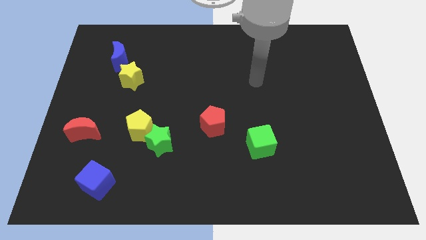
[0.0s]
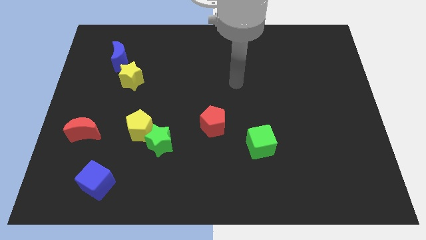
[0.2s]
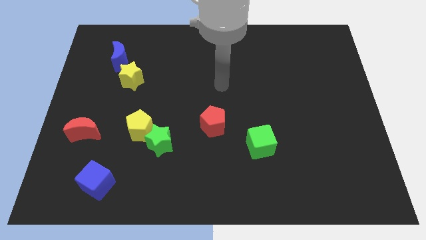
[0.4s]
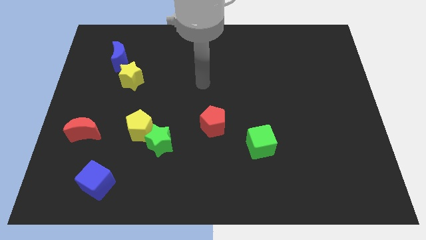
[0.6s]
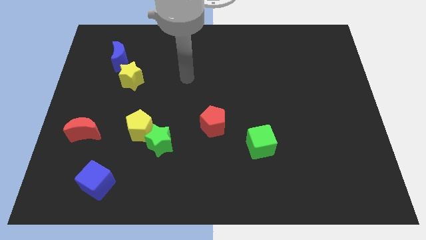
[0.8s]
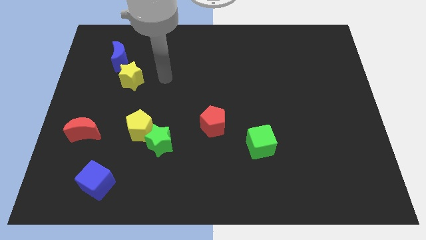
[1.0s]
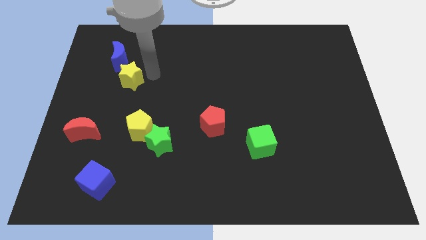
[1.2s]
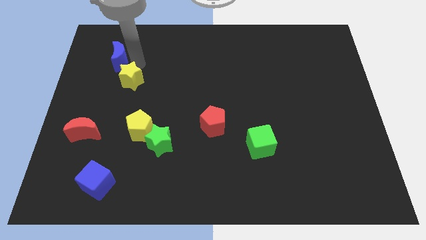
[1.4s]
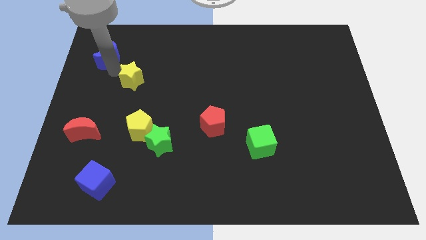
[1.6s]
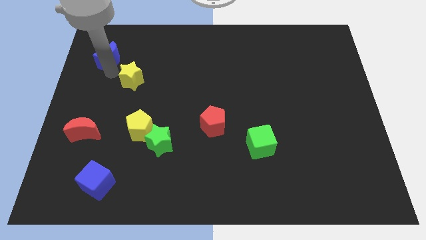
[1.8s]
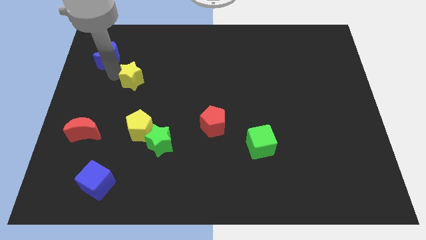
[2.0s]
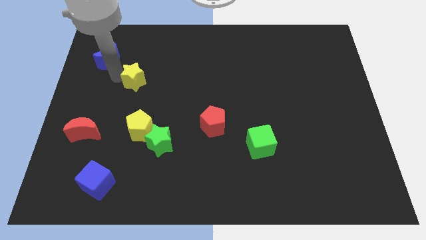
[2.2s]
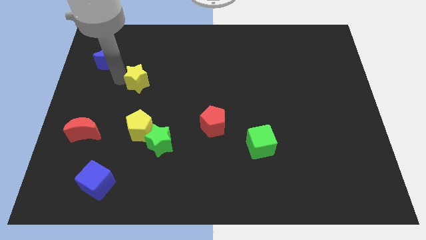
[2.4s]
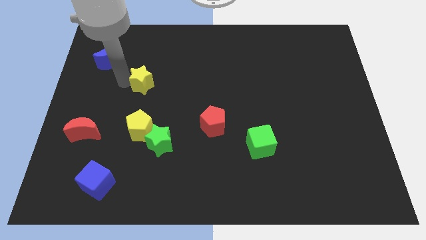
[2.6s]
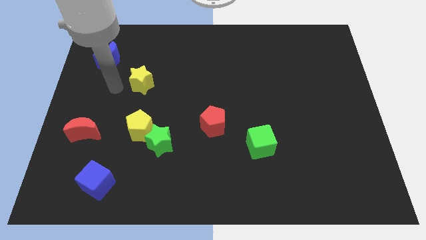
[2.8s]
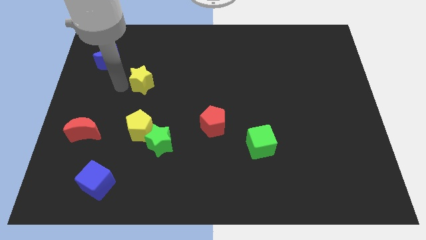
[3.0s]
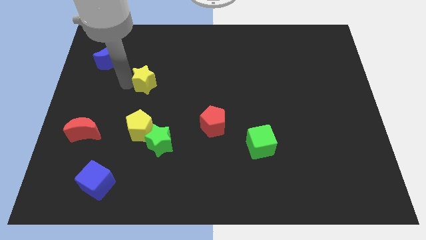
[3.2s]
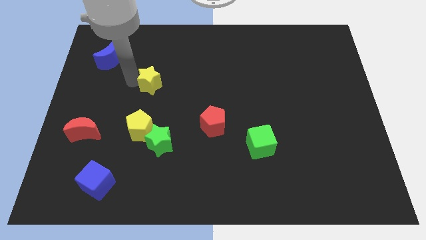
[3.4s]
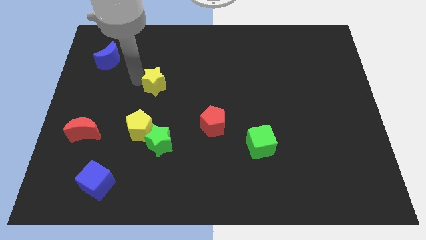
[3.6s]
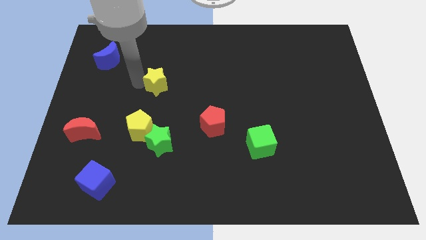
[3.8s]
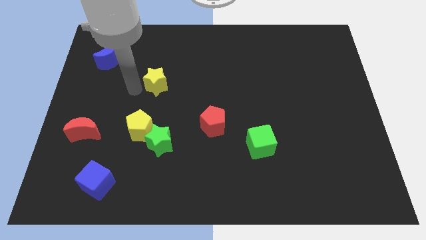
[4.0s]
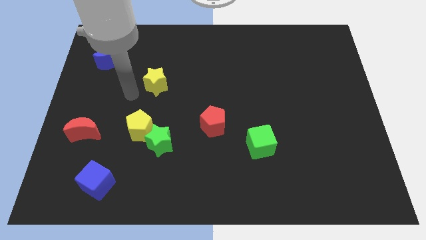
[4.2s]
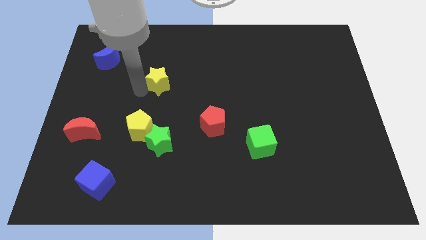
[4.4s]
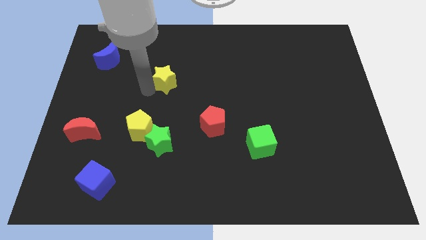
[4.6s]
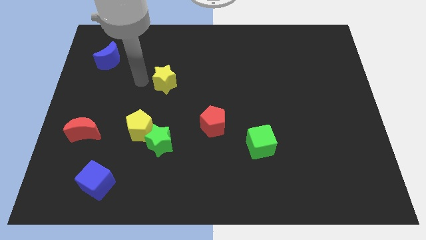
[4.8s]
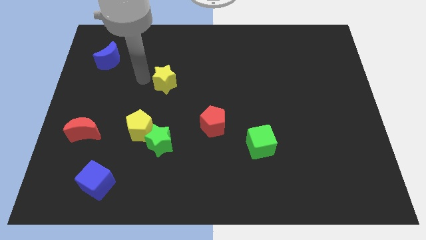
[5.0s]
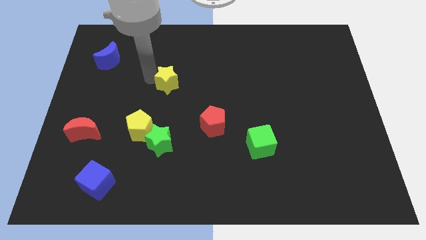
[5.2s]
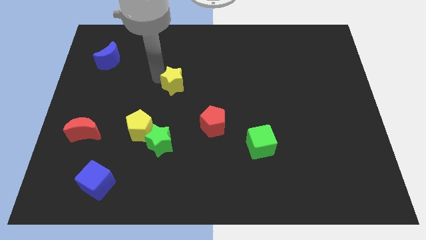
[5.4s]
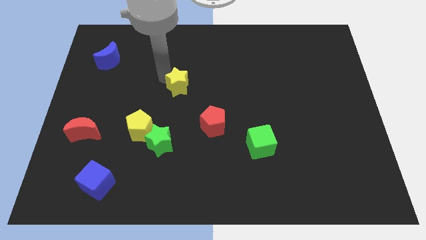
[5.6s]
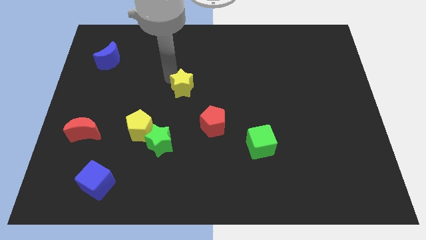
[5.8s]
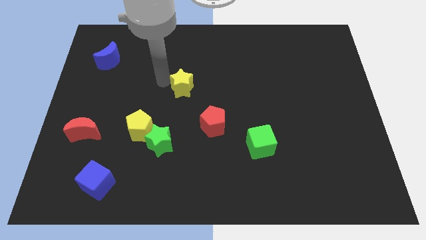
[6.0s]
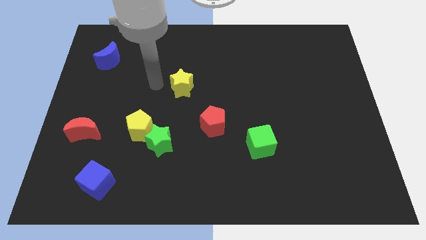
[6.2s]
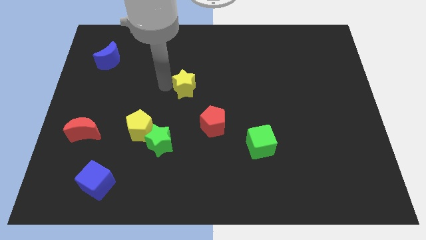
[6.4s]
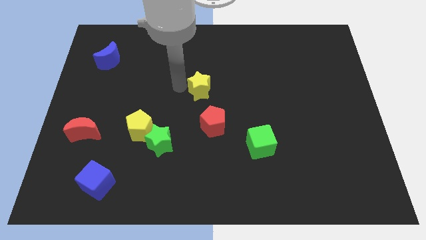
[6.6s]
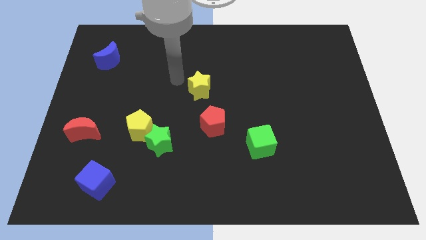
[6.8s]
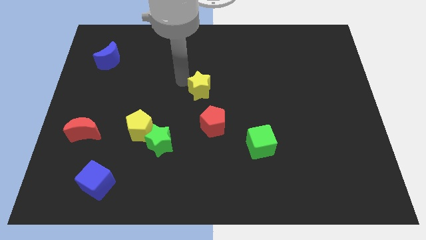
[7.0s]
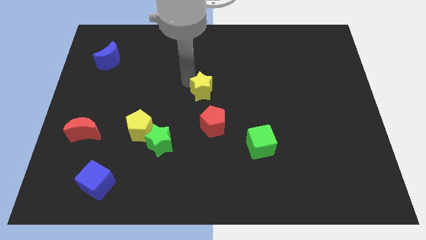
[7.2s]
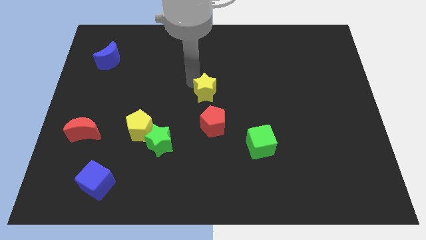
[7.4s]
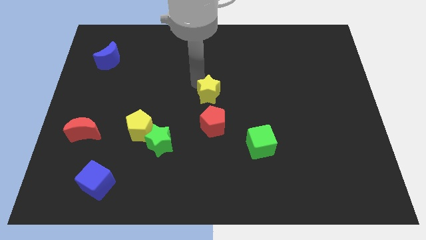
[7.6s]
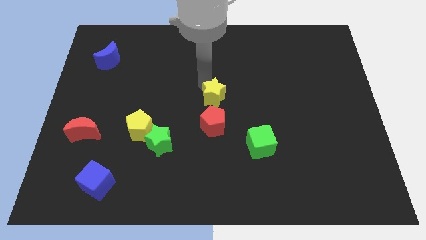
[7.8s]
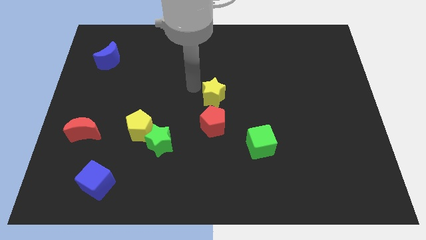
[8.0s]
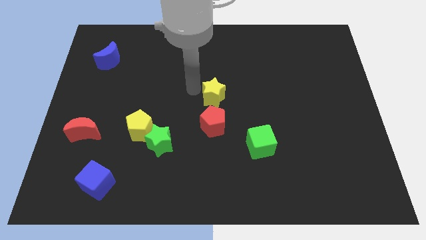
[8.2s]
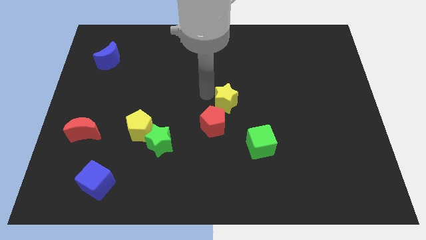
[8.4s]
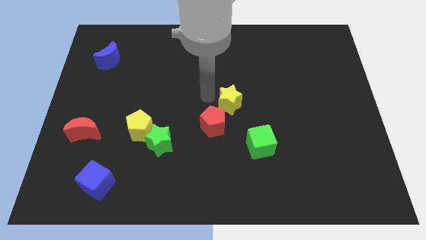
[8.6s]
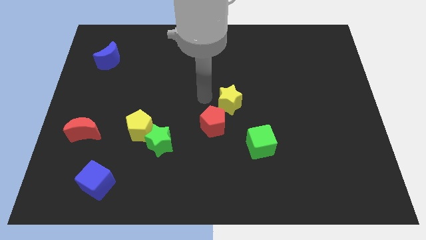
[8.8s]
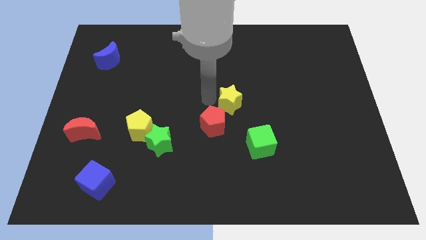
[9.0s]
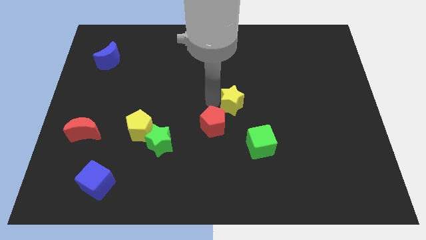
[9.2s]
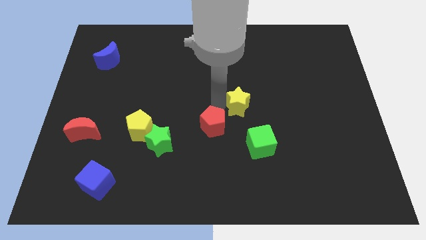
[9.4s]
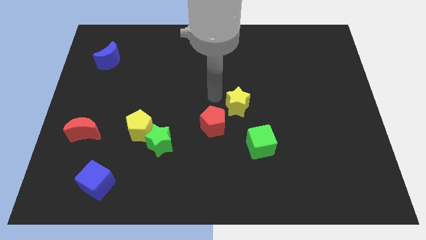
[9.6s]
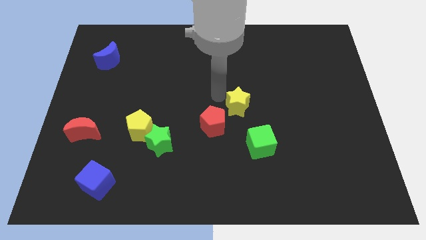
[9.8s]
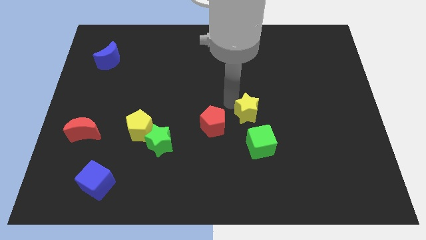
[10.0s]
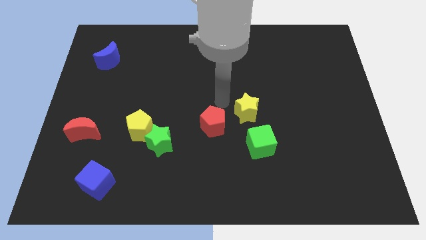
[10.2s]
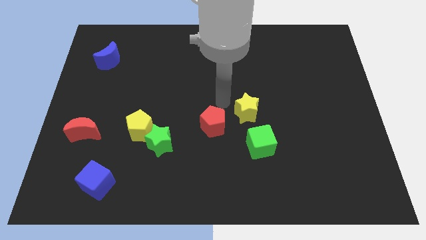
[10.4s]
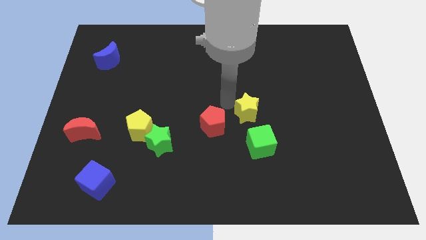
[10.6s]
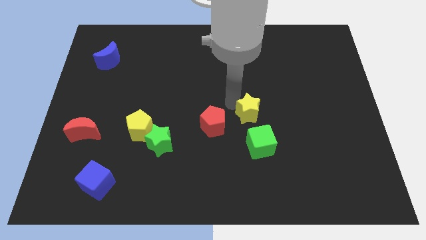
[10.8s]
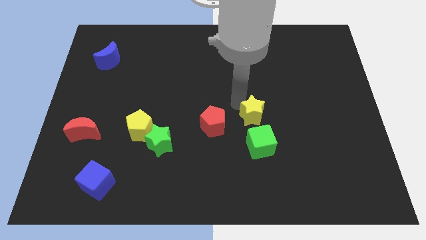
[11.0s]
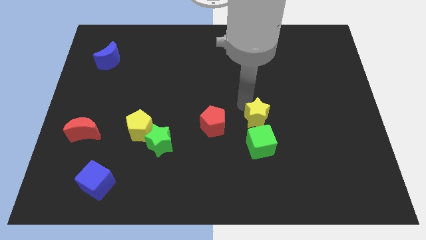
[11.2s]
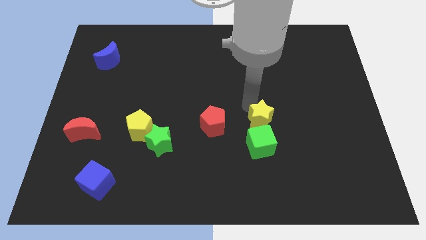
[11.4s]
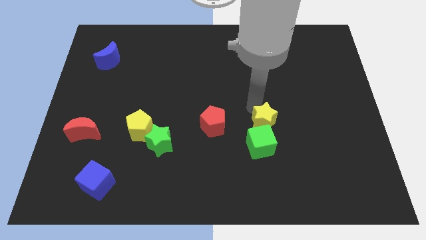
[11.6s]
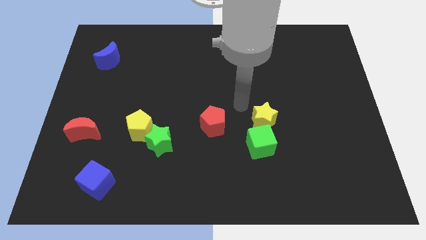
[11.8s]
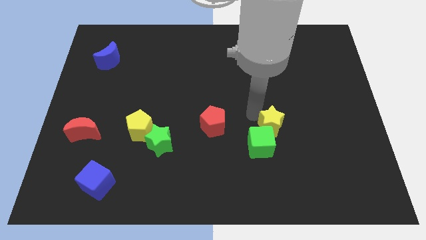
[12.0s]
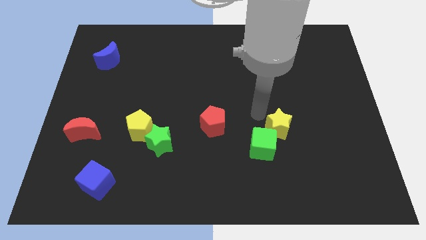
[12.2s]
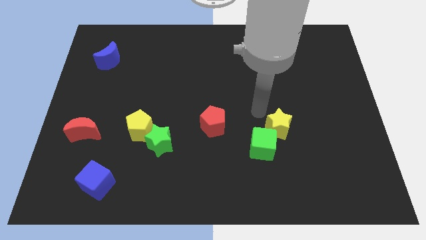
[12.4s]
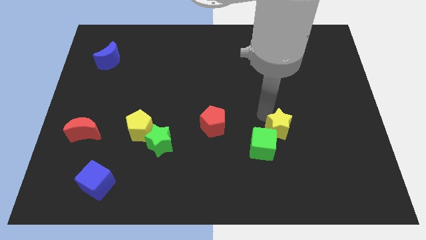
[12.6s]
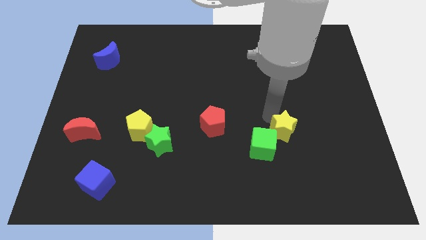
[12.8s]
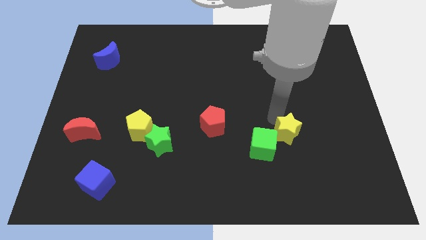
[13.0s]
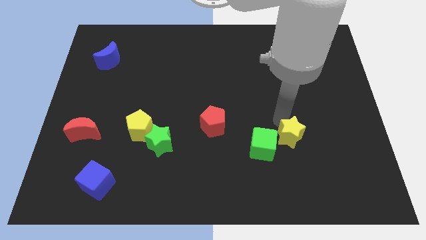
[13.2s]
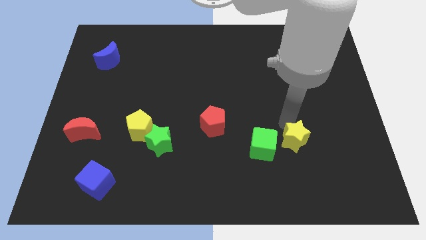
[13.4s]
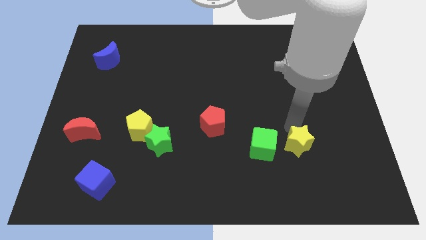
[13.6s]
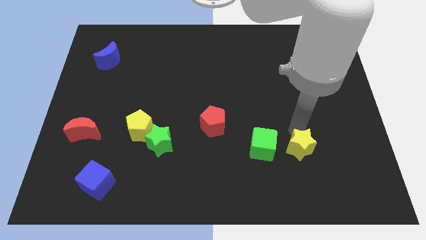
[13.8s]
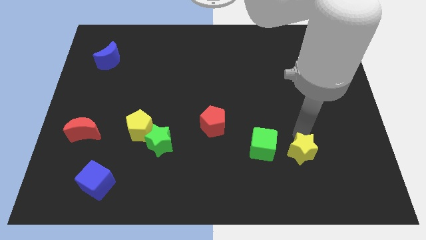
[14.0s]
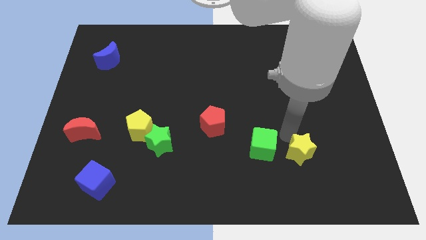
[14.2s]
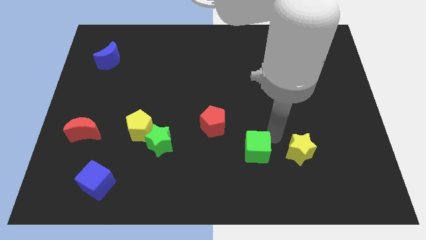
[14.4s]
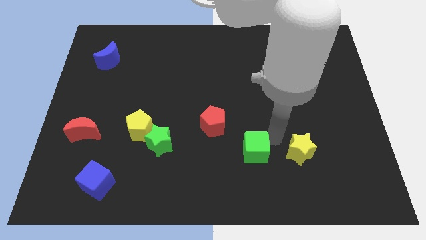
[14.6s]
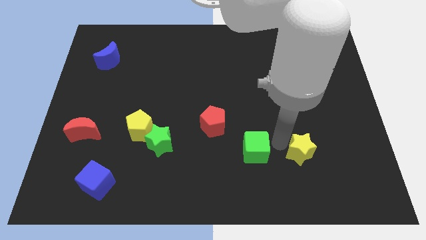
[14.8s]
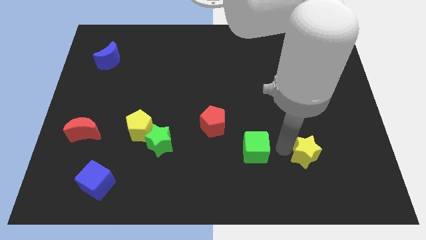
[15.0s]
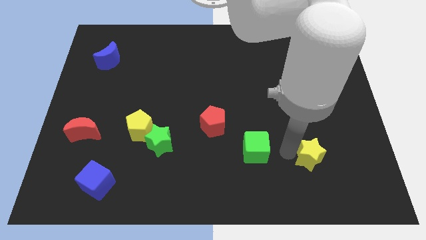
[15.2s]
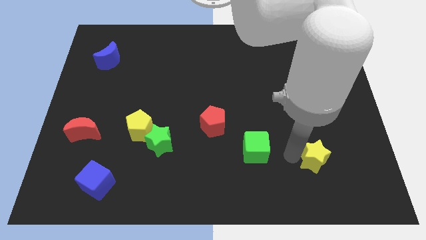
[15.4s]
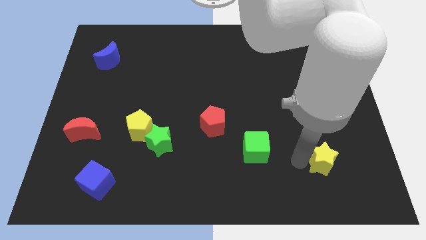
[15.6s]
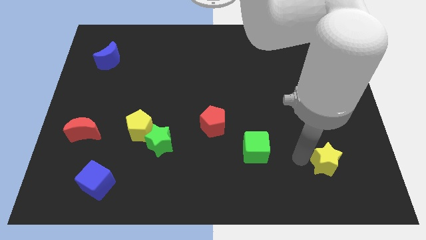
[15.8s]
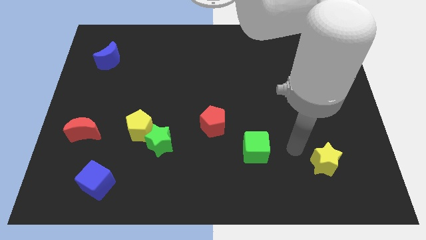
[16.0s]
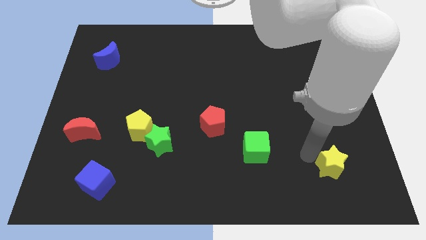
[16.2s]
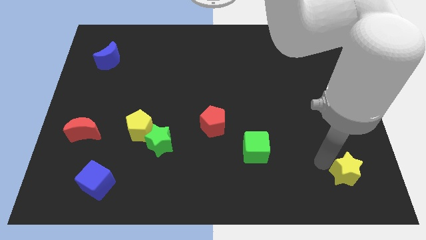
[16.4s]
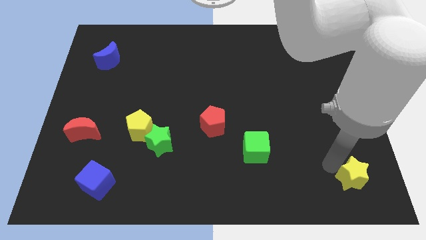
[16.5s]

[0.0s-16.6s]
put the yellow star to the bottom right
